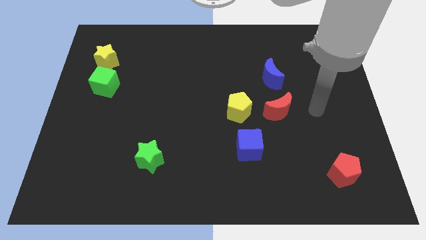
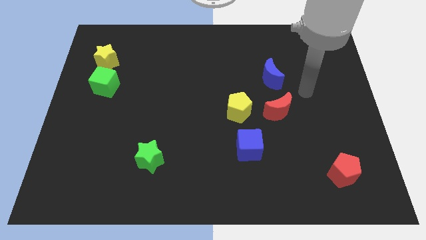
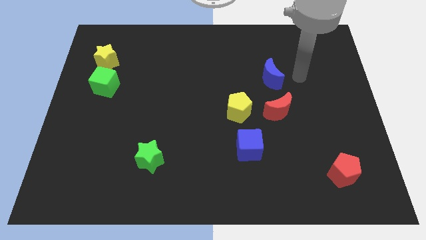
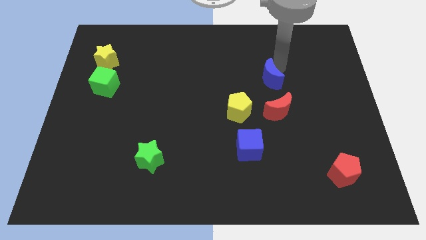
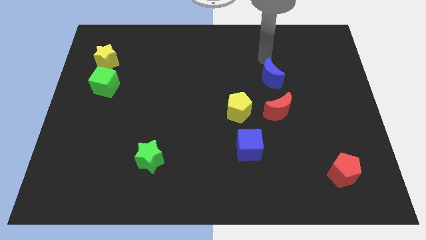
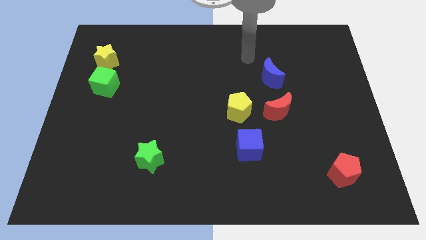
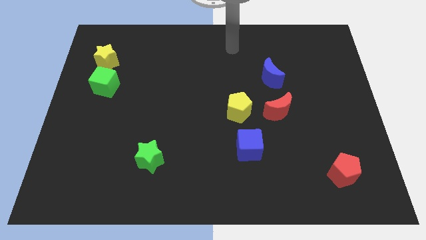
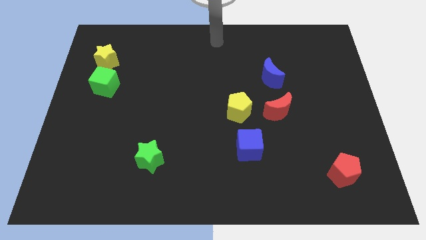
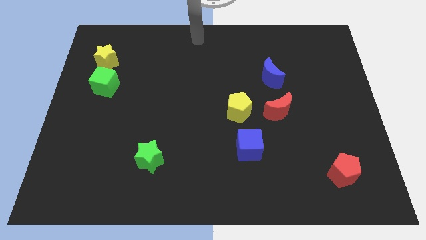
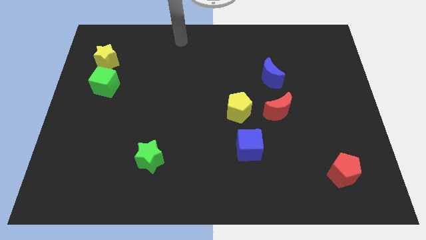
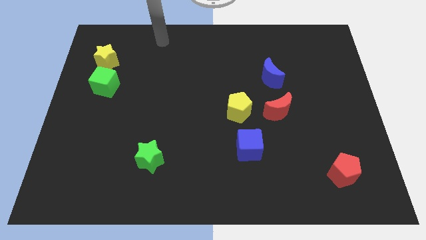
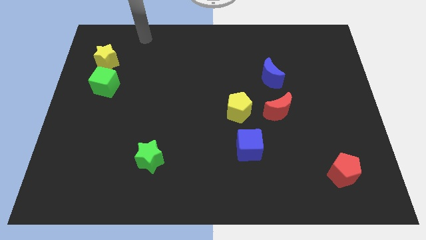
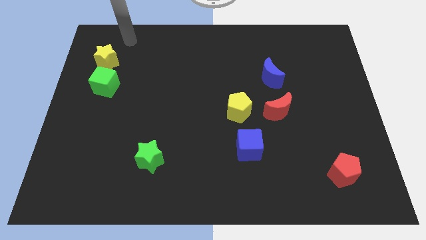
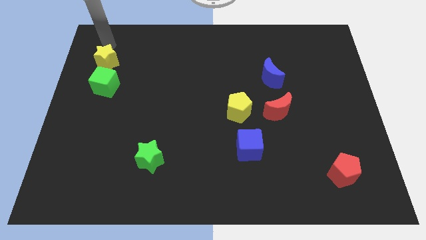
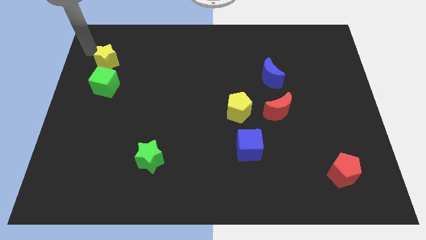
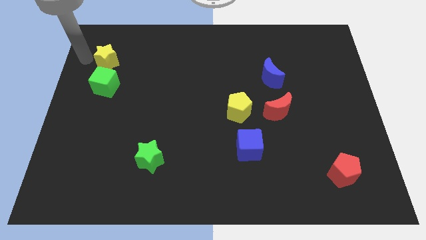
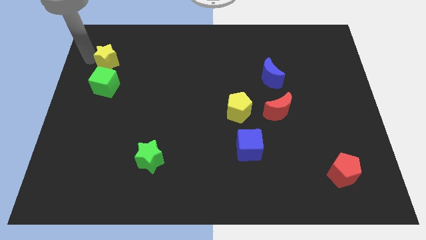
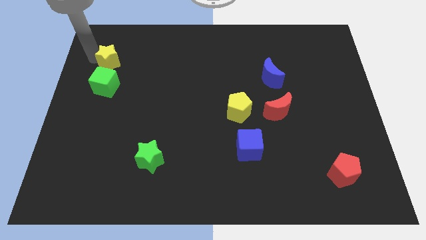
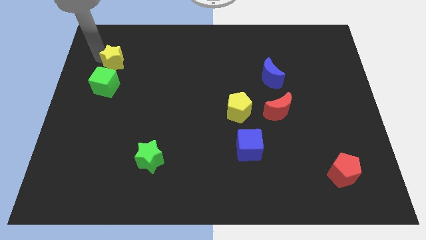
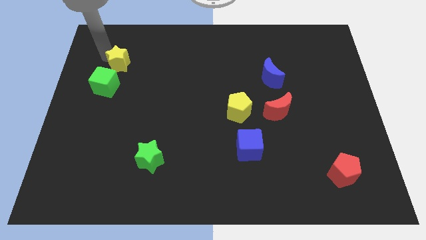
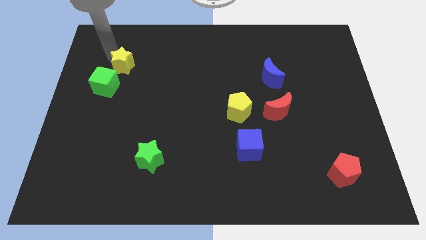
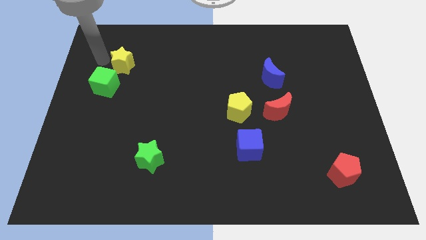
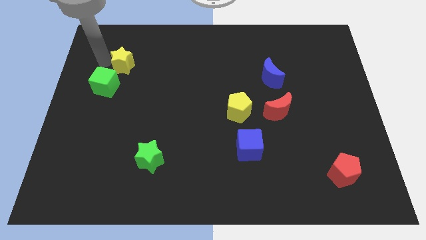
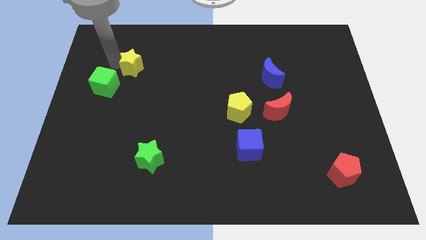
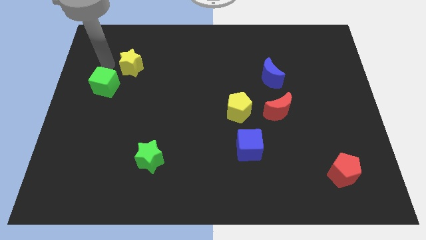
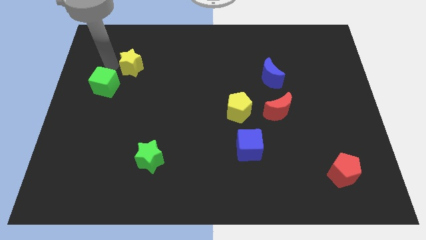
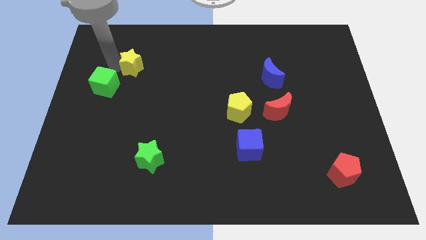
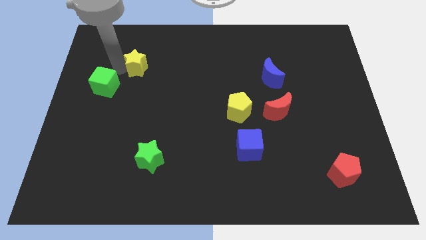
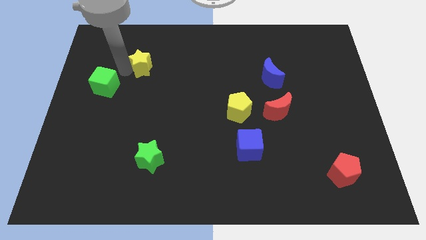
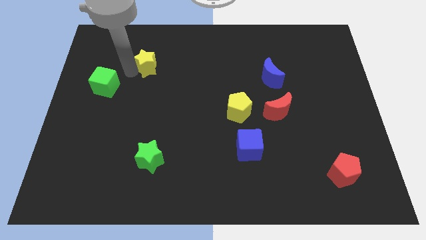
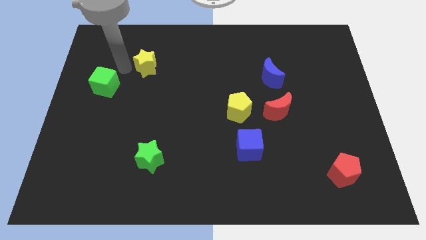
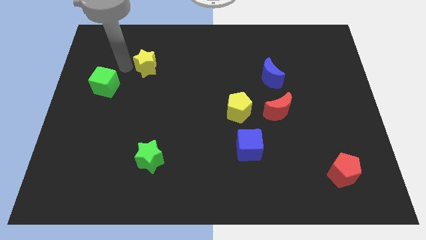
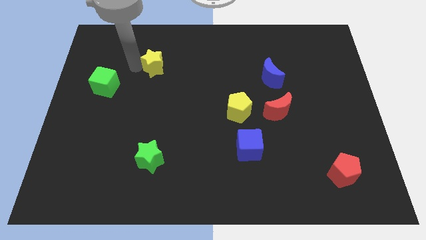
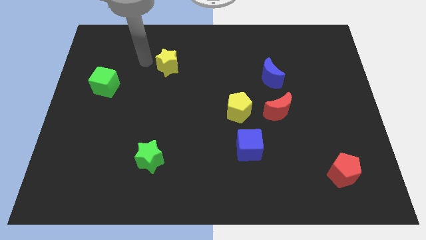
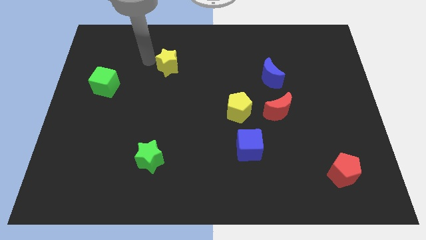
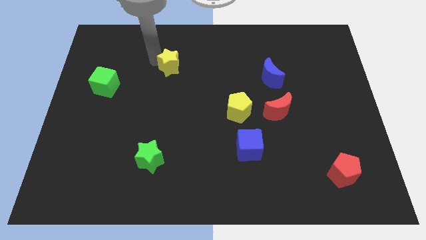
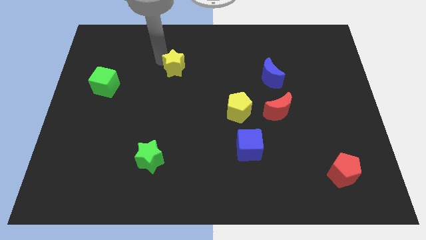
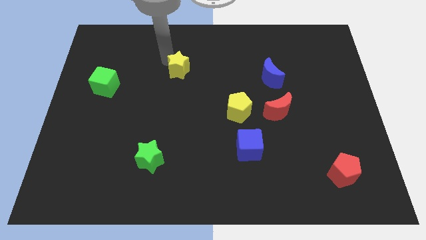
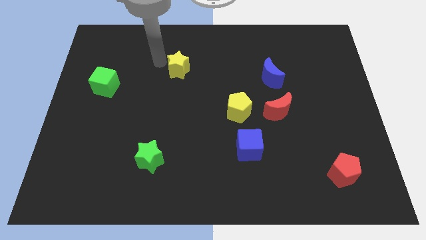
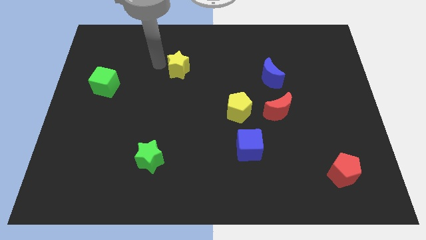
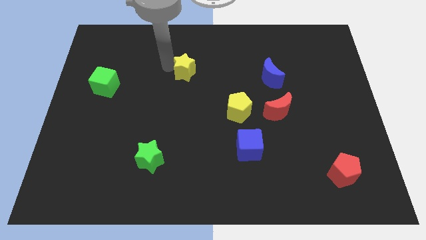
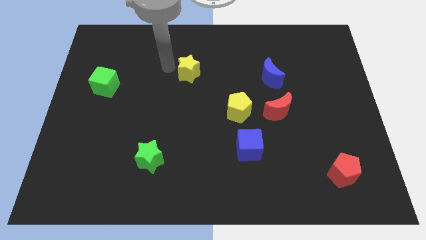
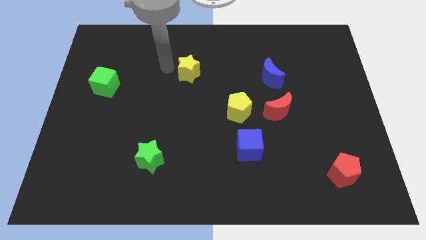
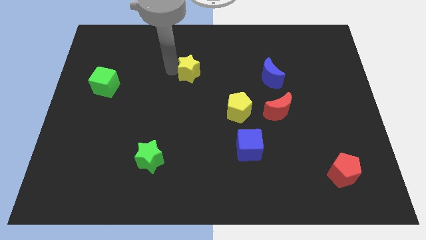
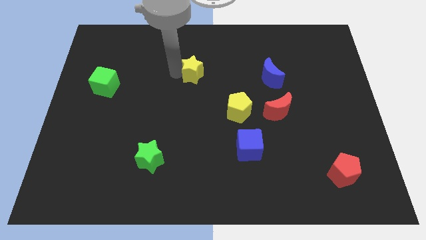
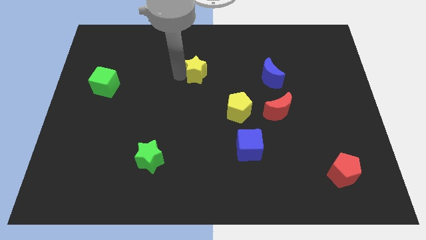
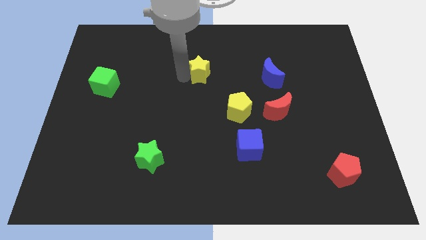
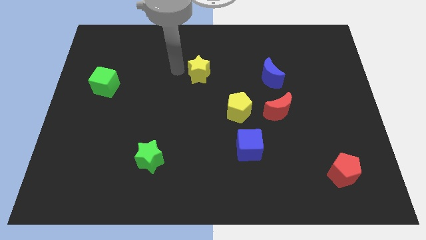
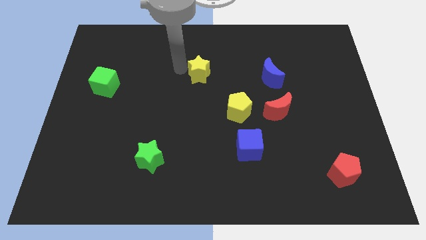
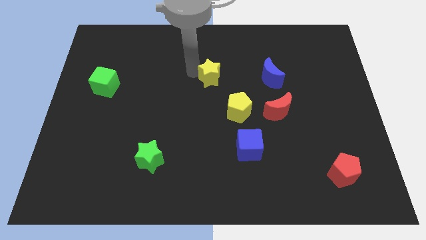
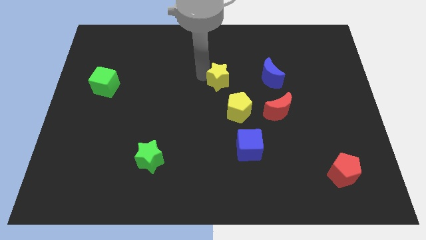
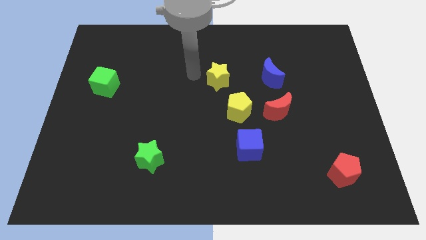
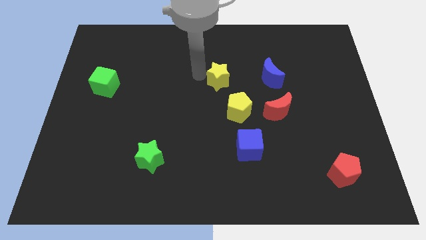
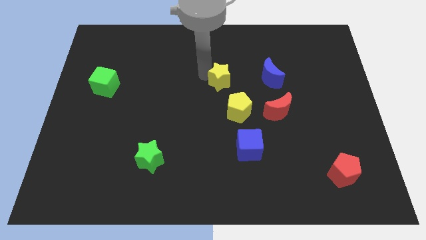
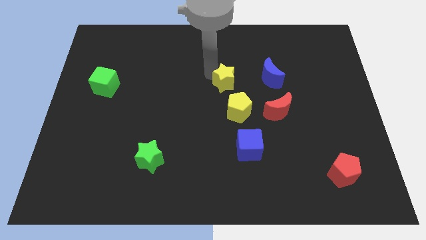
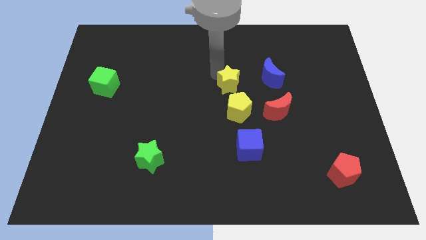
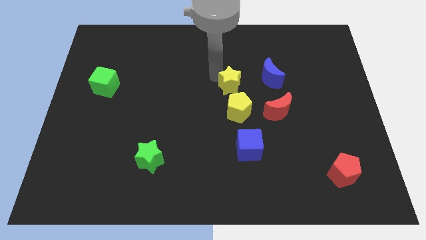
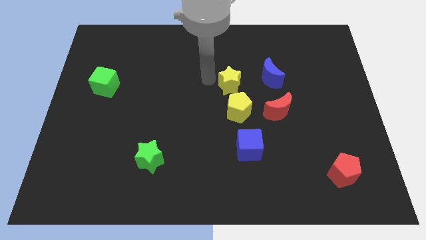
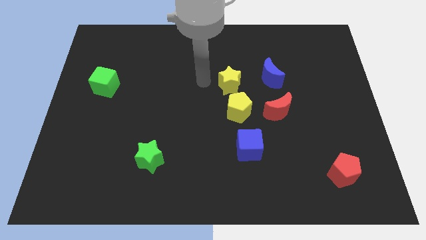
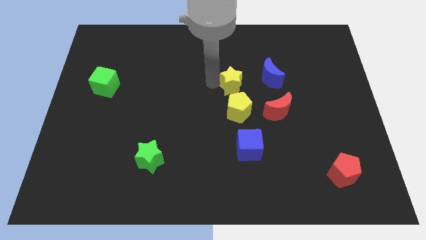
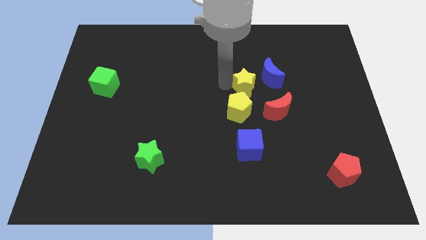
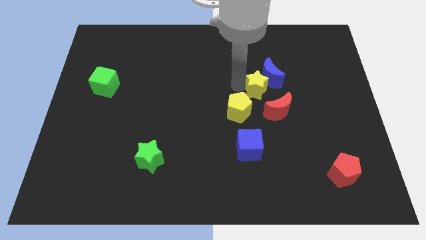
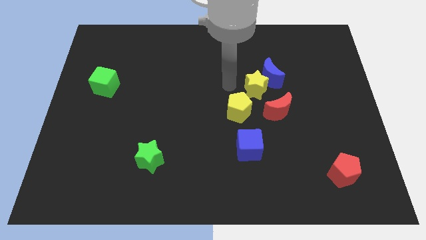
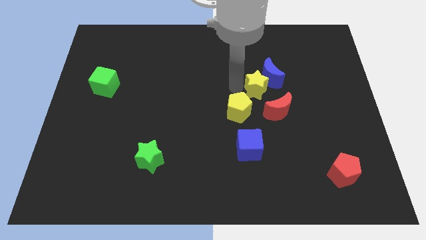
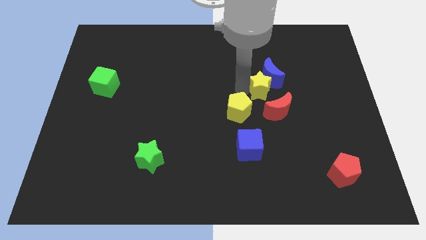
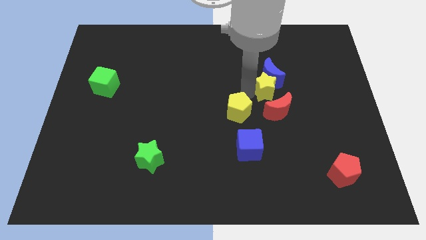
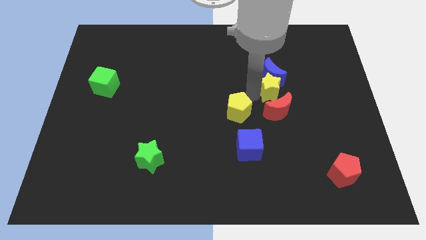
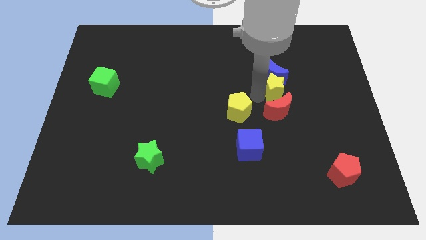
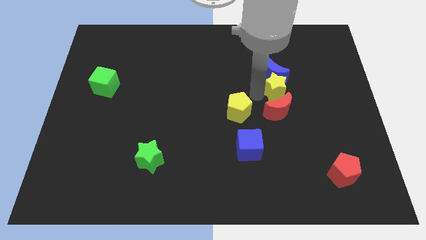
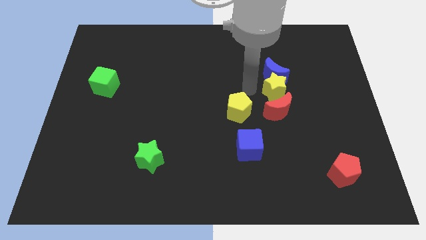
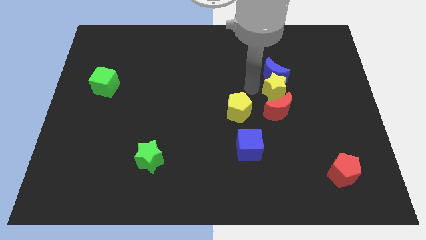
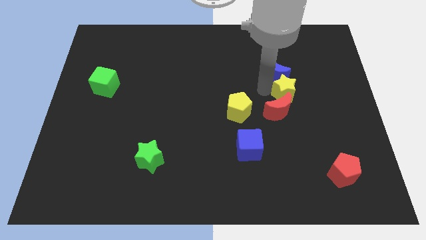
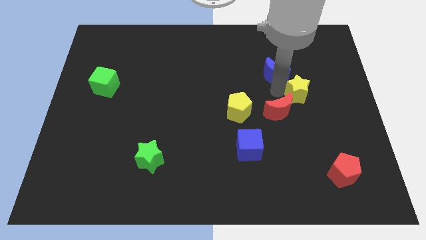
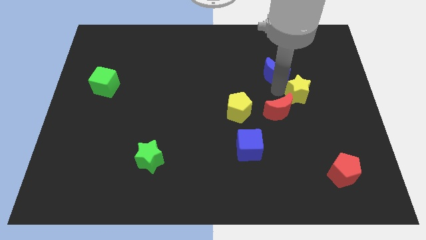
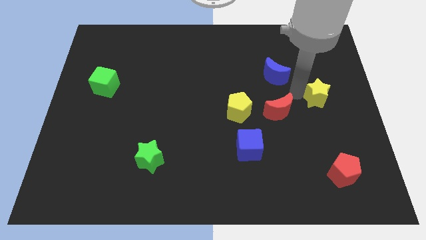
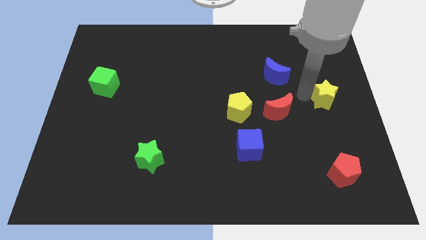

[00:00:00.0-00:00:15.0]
move the yellow star to the right side of the board
